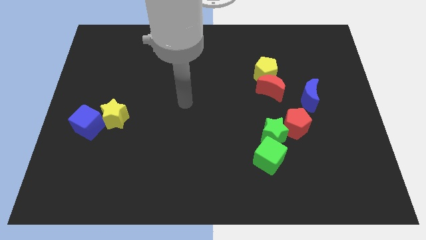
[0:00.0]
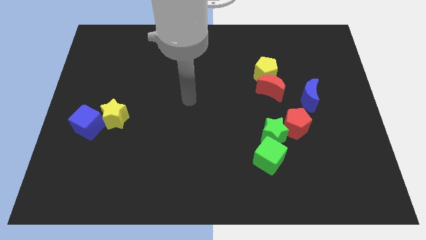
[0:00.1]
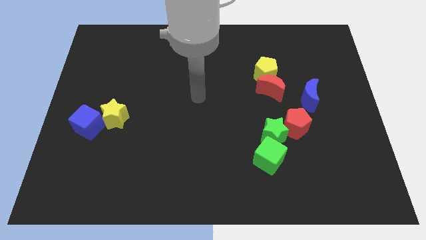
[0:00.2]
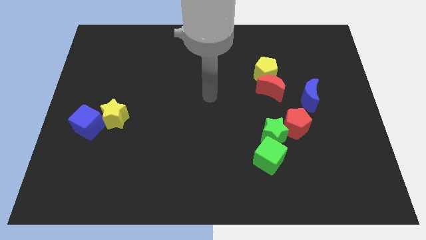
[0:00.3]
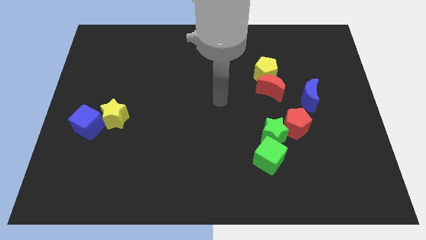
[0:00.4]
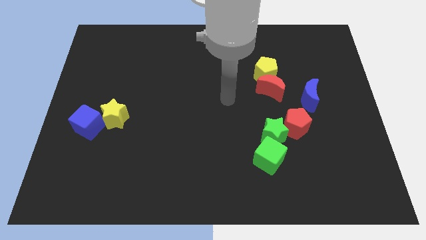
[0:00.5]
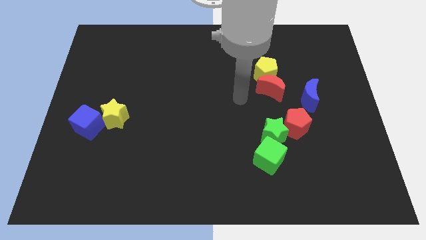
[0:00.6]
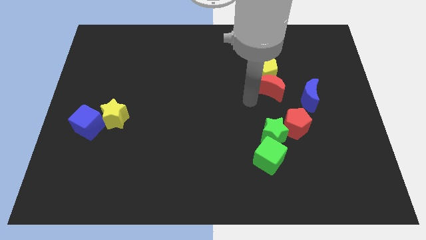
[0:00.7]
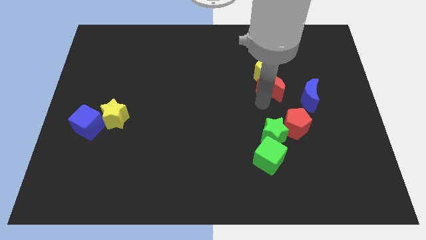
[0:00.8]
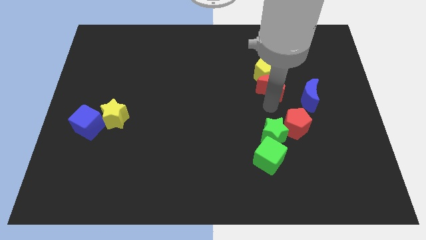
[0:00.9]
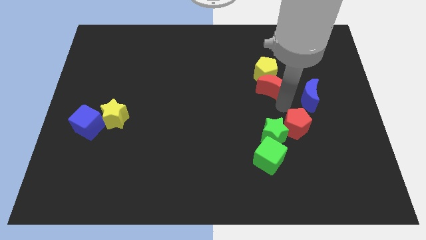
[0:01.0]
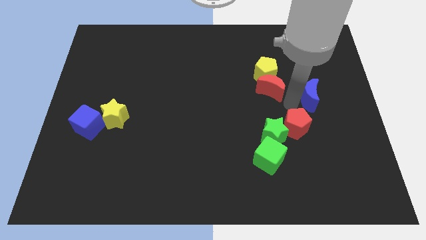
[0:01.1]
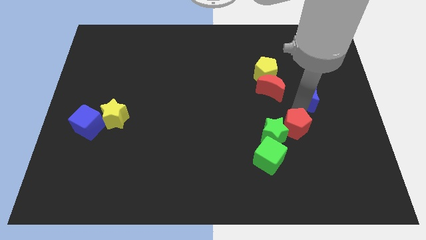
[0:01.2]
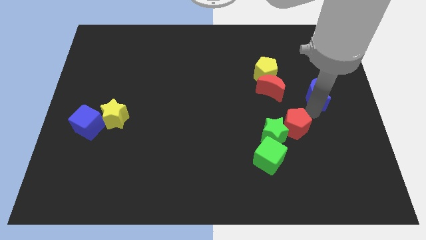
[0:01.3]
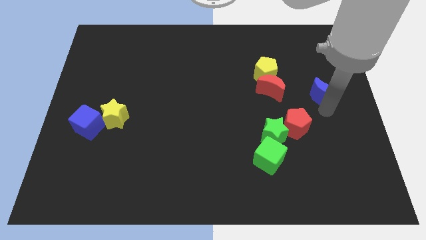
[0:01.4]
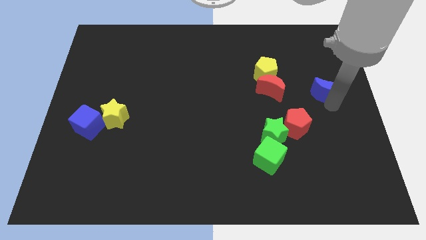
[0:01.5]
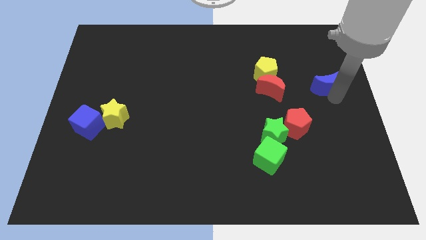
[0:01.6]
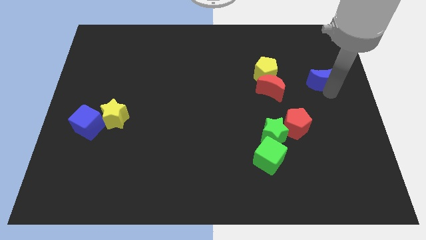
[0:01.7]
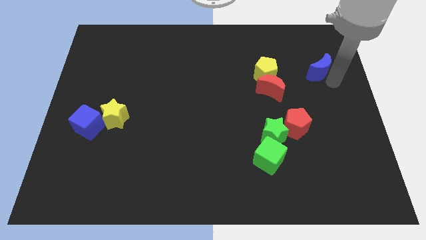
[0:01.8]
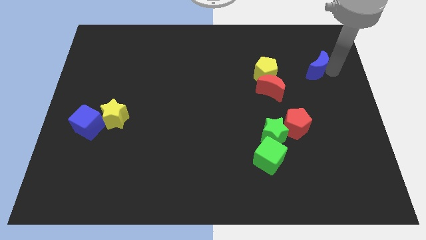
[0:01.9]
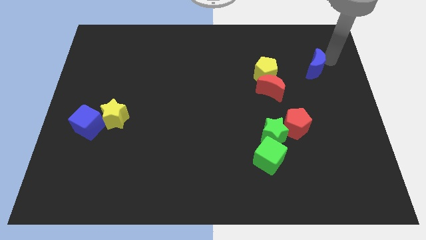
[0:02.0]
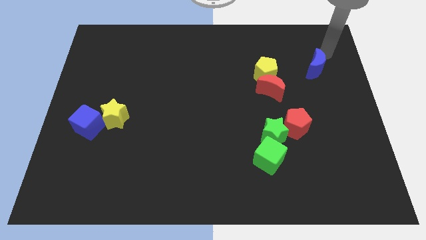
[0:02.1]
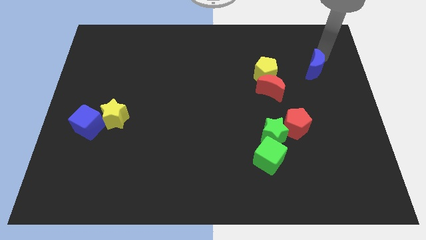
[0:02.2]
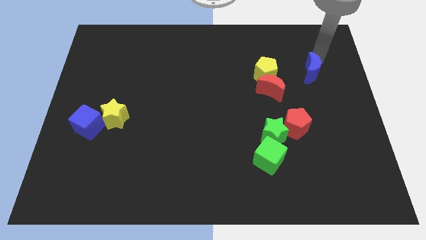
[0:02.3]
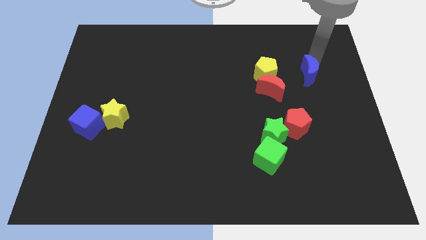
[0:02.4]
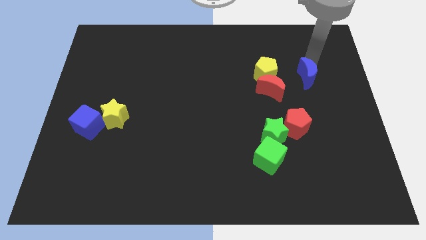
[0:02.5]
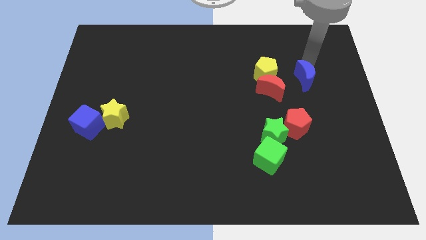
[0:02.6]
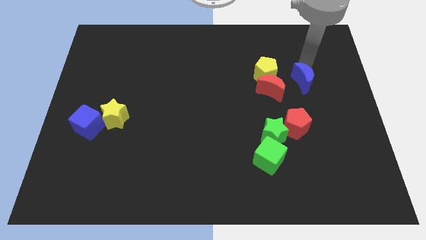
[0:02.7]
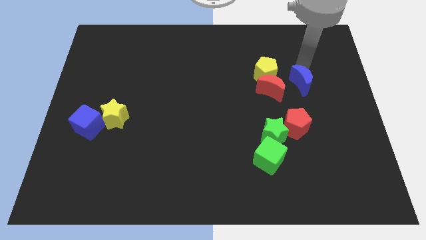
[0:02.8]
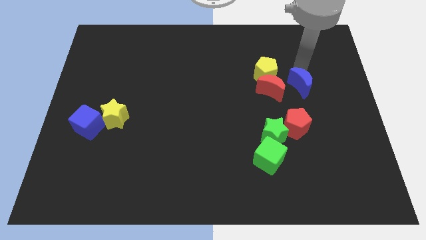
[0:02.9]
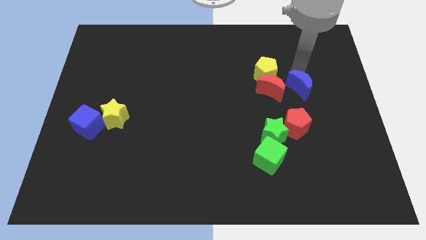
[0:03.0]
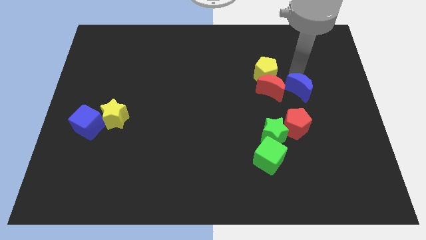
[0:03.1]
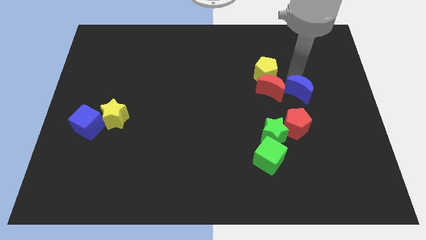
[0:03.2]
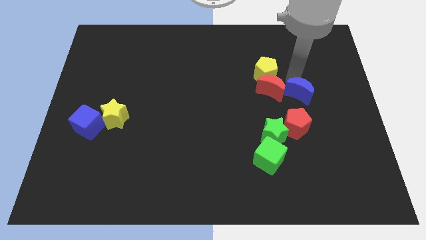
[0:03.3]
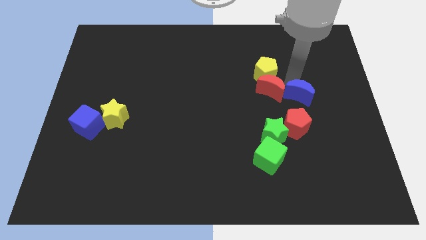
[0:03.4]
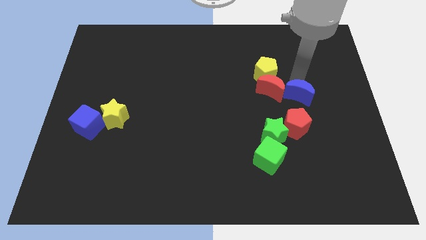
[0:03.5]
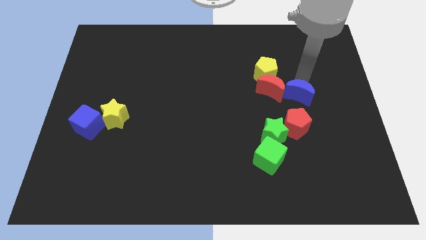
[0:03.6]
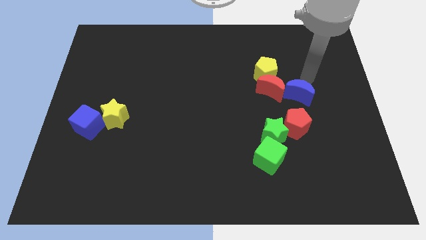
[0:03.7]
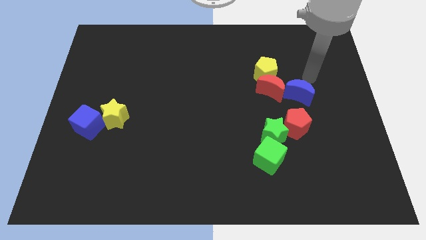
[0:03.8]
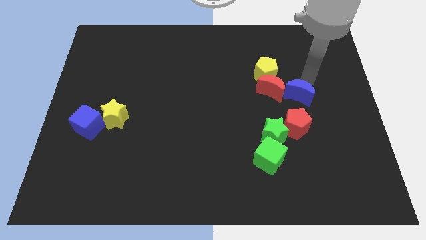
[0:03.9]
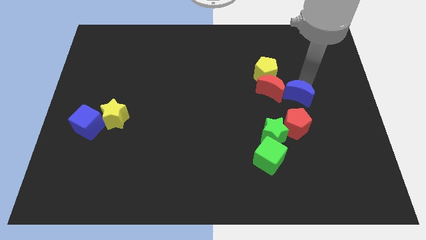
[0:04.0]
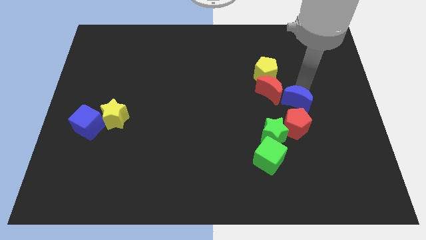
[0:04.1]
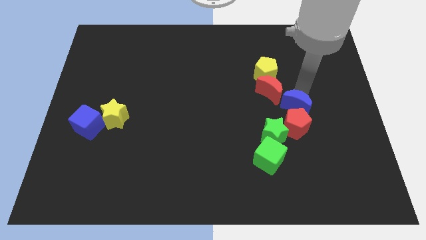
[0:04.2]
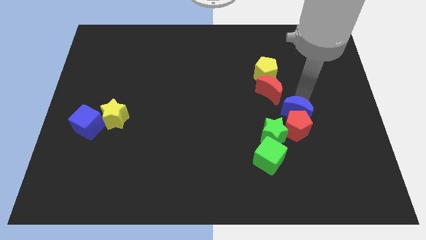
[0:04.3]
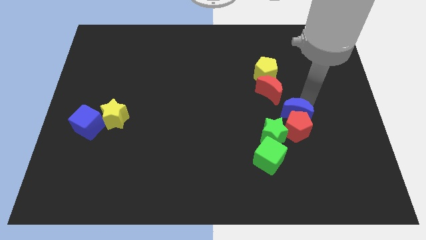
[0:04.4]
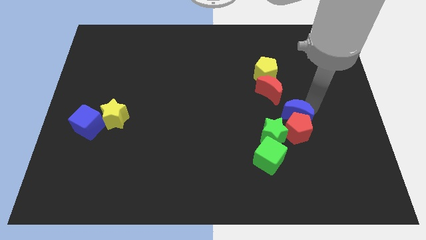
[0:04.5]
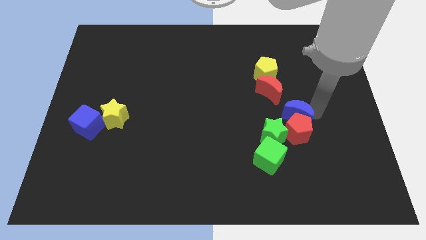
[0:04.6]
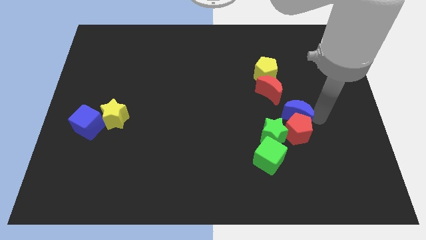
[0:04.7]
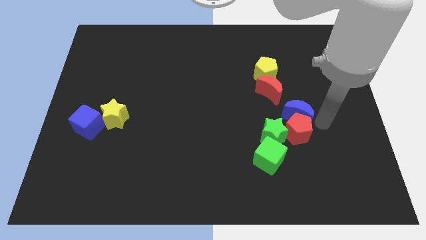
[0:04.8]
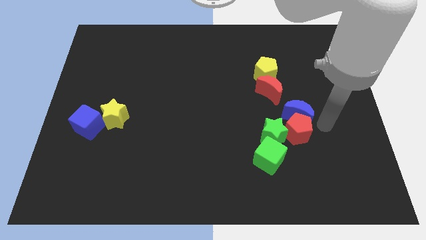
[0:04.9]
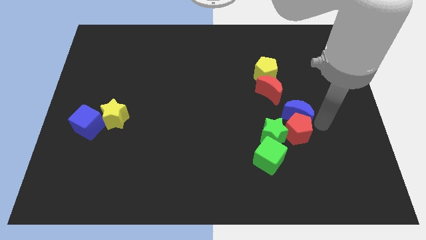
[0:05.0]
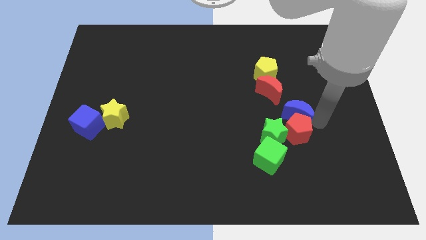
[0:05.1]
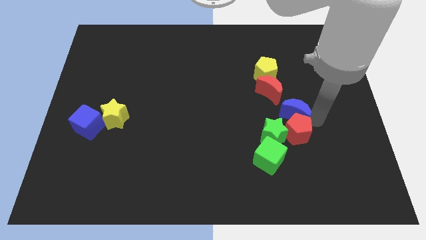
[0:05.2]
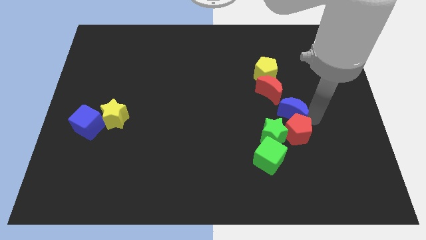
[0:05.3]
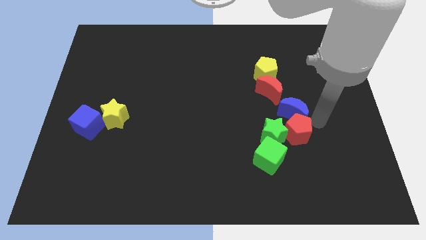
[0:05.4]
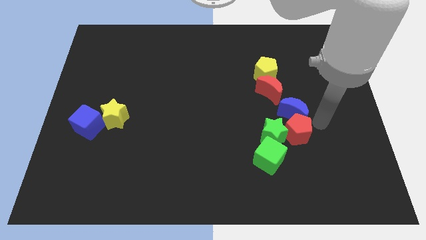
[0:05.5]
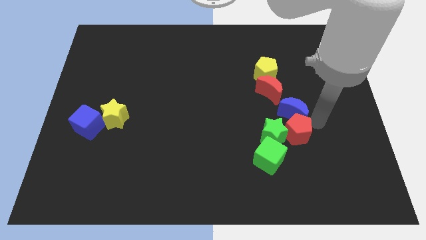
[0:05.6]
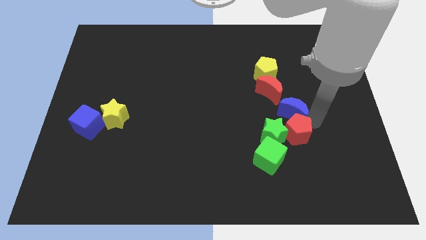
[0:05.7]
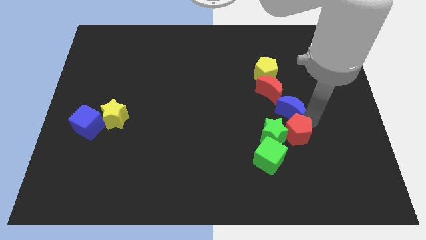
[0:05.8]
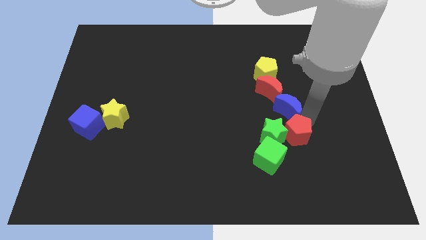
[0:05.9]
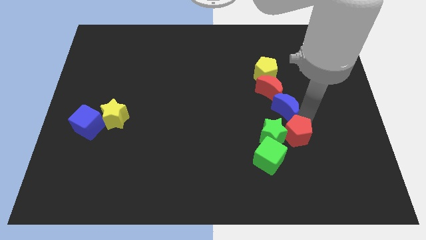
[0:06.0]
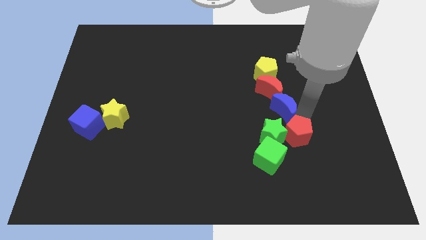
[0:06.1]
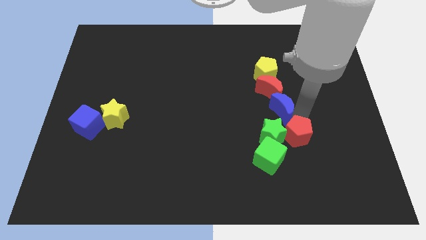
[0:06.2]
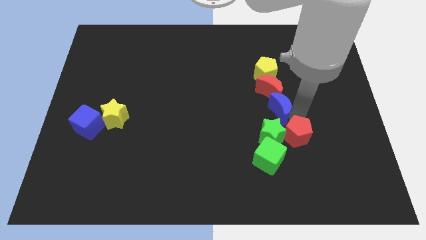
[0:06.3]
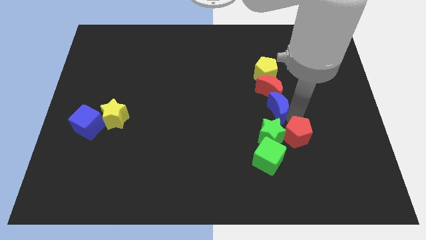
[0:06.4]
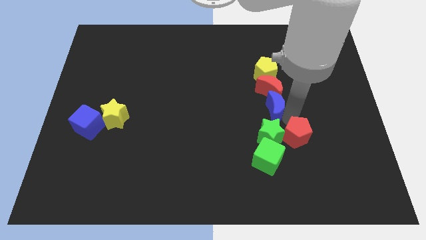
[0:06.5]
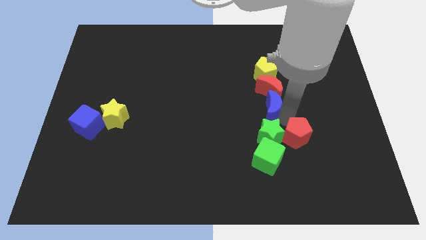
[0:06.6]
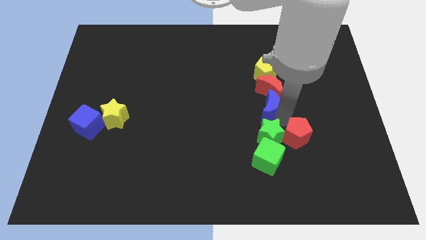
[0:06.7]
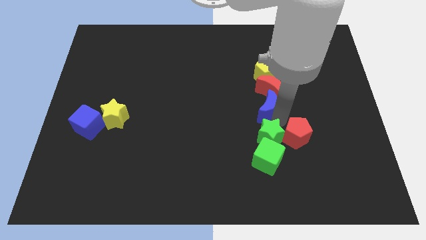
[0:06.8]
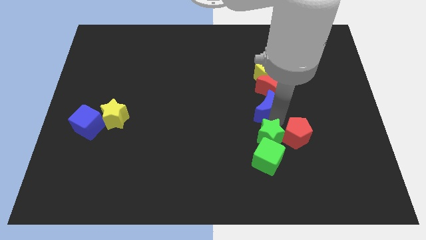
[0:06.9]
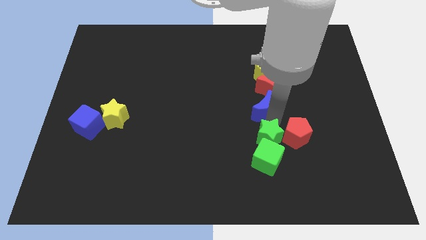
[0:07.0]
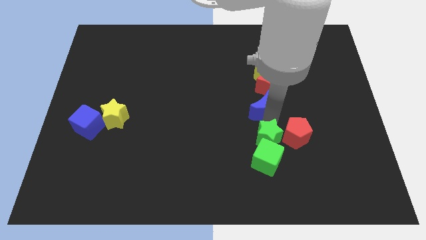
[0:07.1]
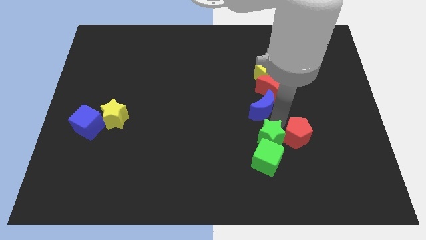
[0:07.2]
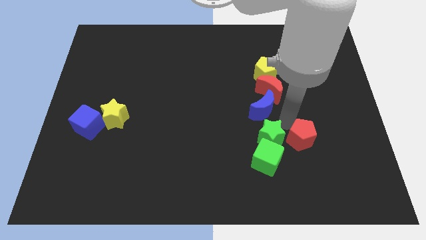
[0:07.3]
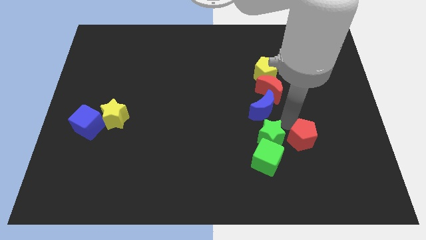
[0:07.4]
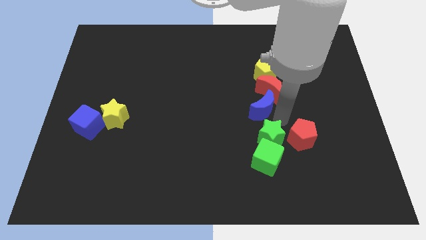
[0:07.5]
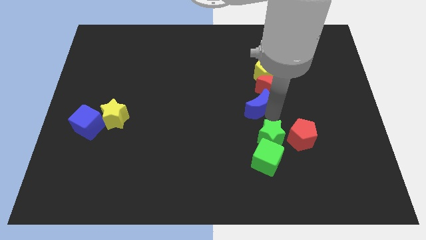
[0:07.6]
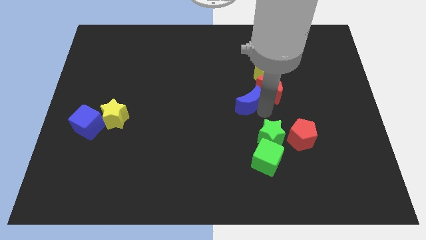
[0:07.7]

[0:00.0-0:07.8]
move the blue moon to the left side of the red moon
